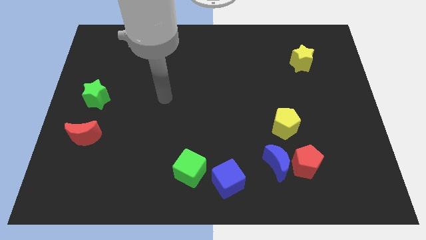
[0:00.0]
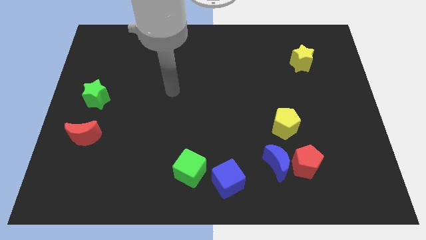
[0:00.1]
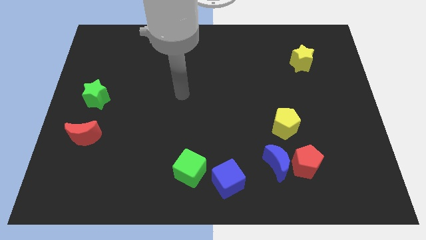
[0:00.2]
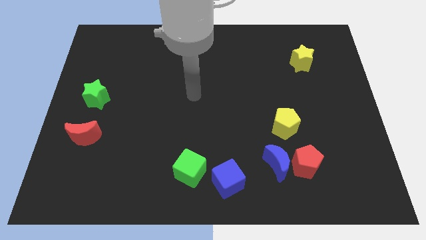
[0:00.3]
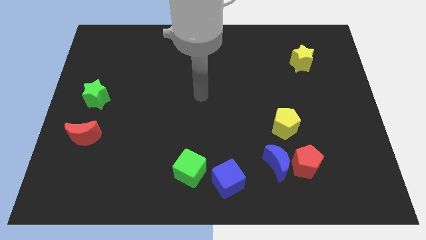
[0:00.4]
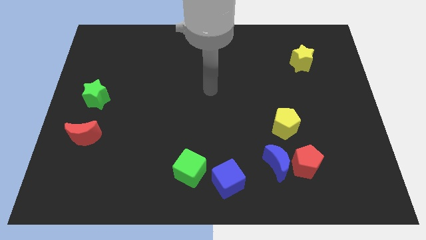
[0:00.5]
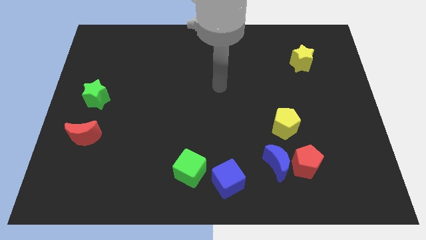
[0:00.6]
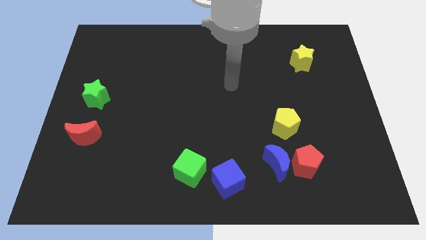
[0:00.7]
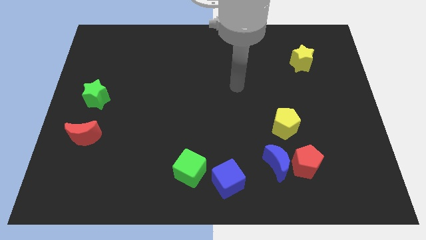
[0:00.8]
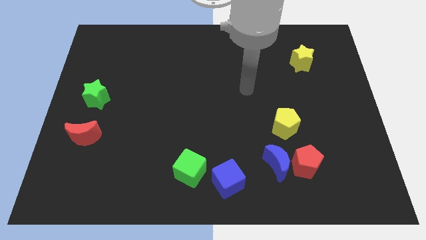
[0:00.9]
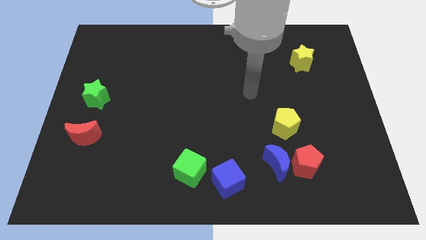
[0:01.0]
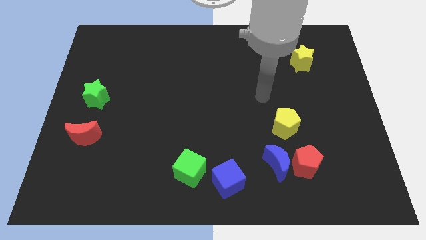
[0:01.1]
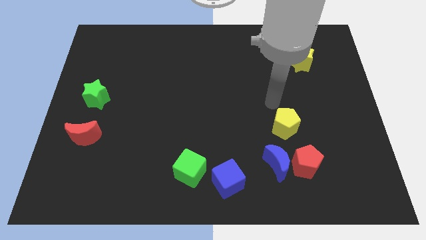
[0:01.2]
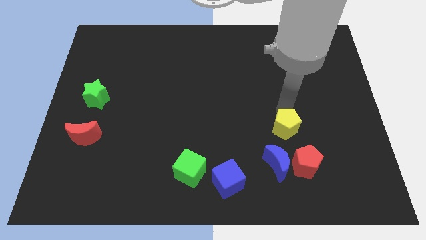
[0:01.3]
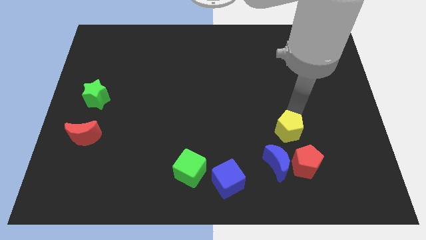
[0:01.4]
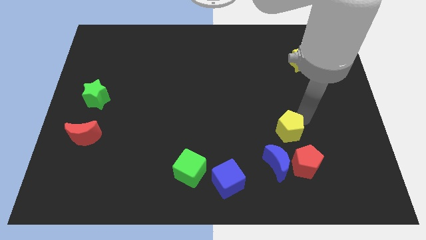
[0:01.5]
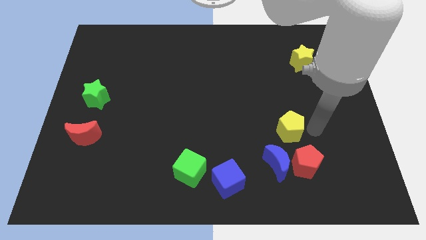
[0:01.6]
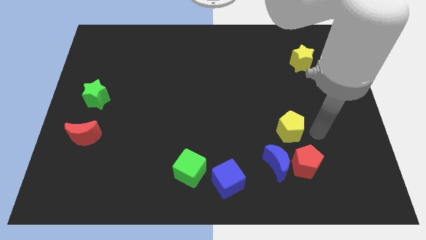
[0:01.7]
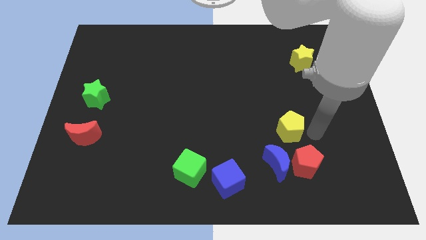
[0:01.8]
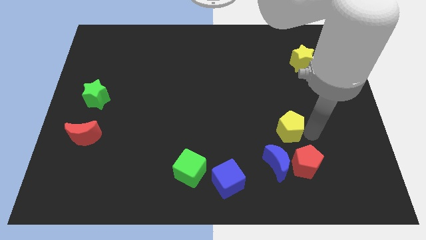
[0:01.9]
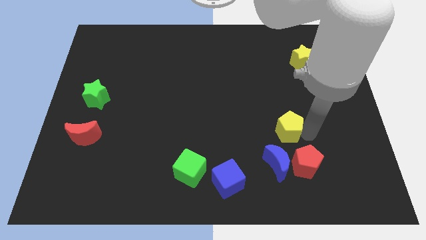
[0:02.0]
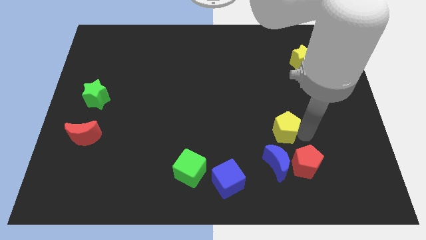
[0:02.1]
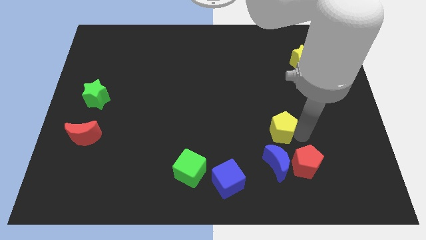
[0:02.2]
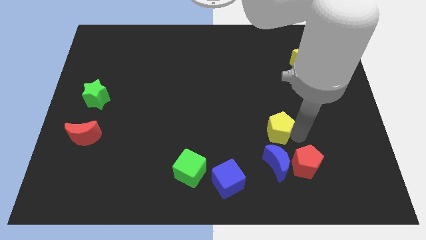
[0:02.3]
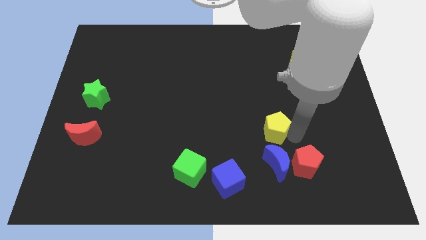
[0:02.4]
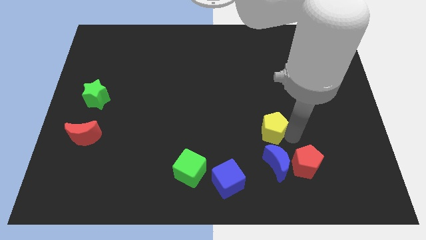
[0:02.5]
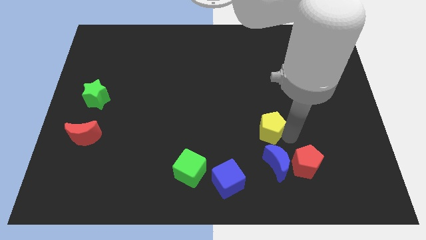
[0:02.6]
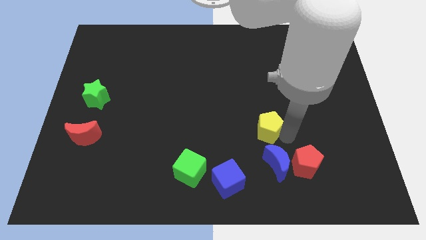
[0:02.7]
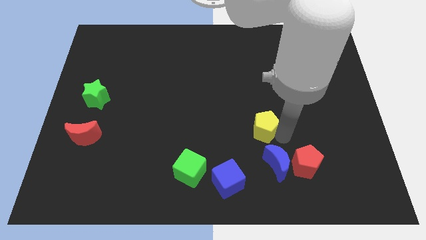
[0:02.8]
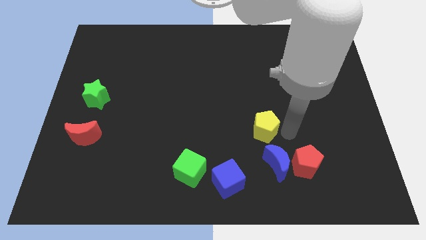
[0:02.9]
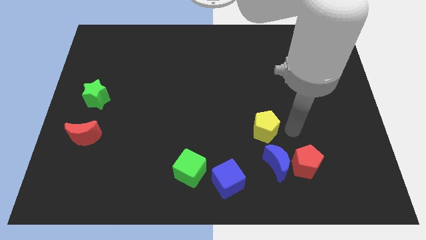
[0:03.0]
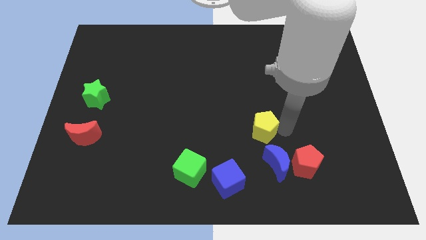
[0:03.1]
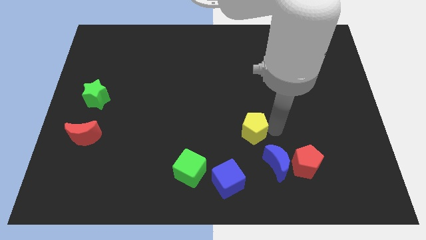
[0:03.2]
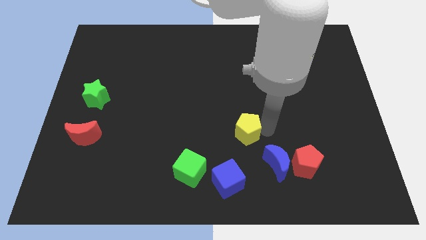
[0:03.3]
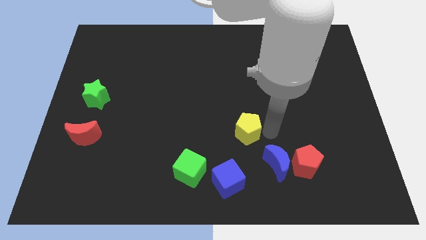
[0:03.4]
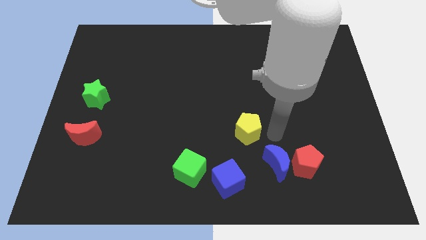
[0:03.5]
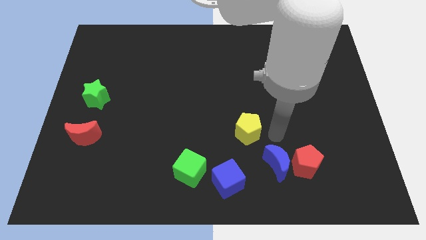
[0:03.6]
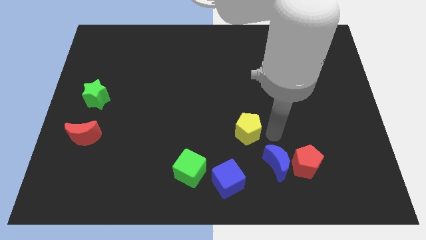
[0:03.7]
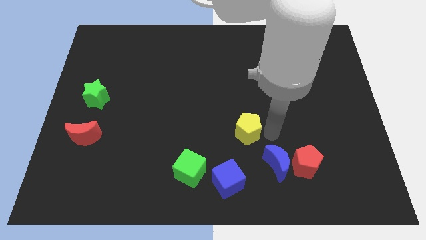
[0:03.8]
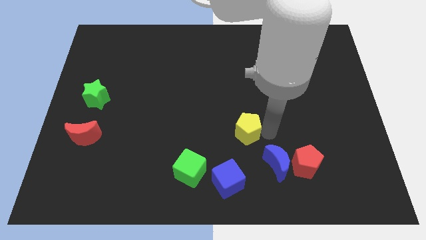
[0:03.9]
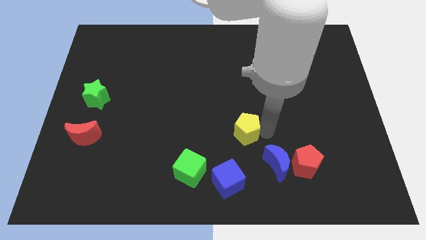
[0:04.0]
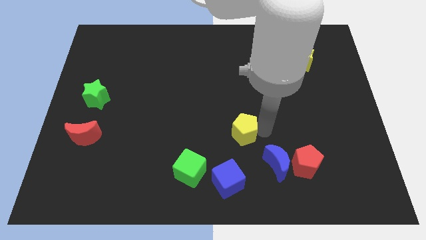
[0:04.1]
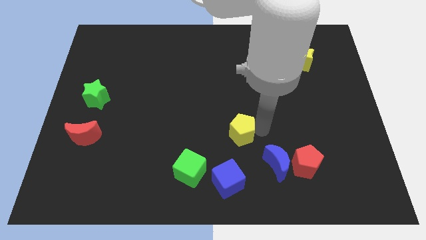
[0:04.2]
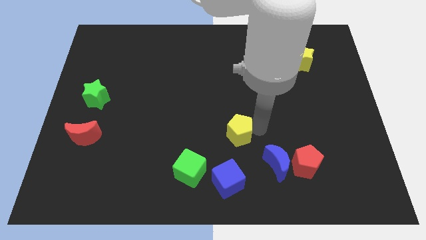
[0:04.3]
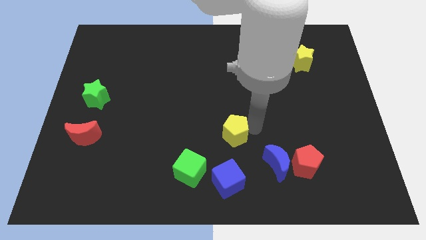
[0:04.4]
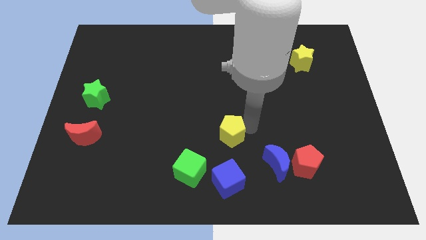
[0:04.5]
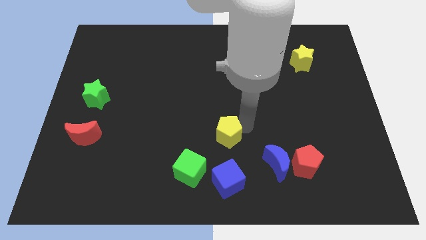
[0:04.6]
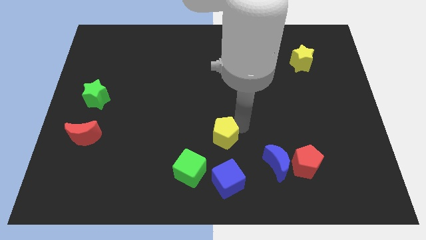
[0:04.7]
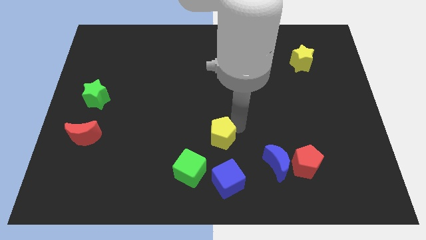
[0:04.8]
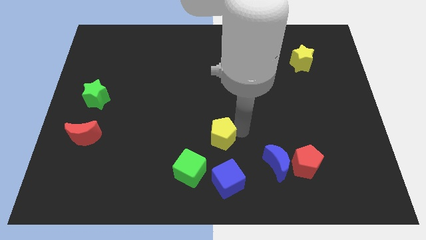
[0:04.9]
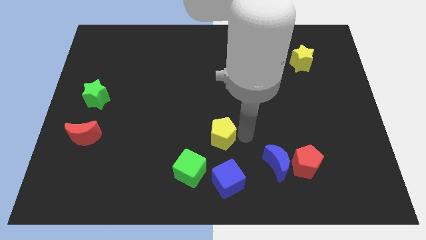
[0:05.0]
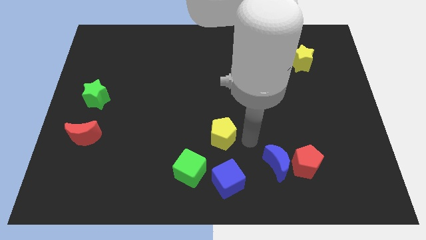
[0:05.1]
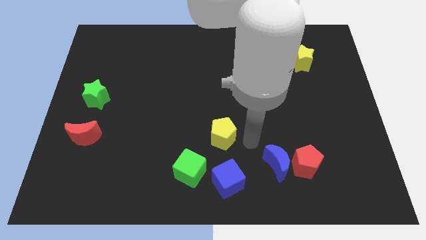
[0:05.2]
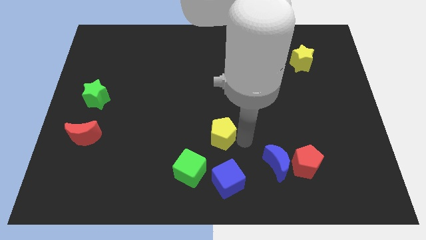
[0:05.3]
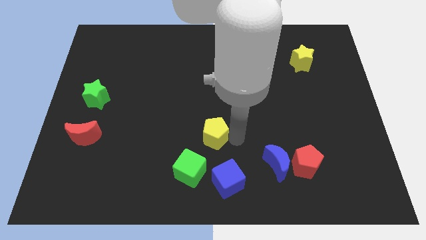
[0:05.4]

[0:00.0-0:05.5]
move the yellow pentagon to the top of the green cube
